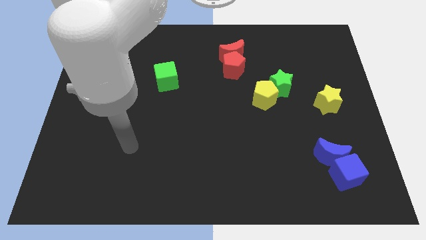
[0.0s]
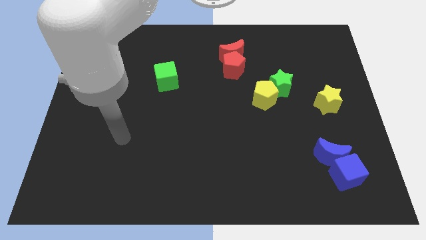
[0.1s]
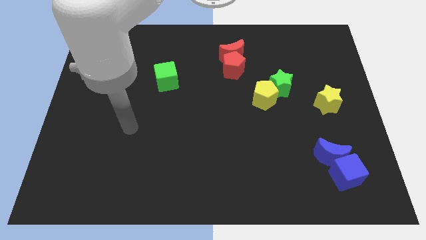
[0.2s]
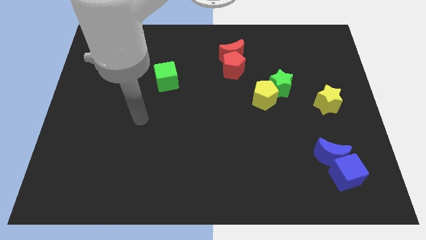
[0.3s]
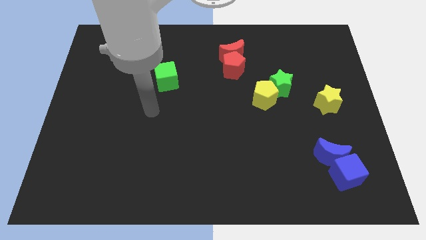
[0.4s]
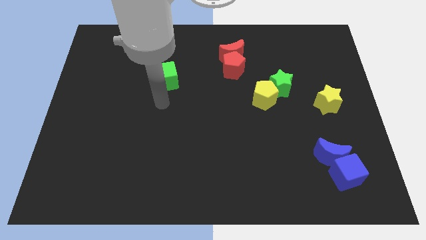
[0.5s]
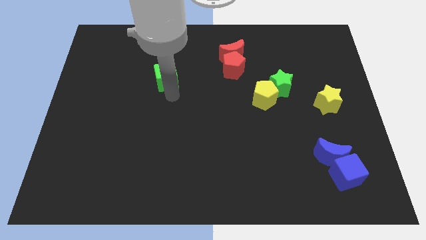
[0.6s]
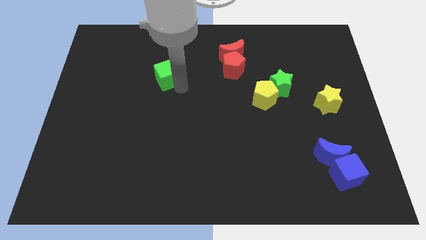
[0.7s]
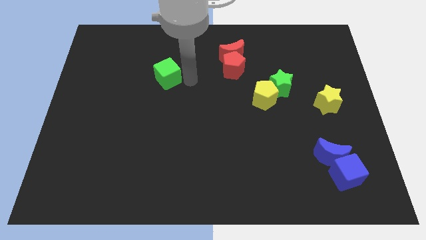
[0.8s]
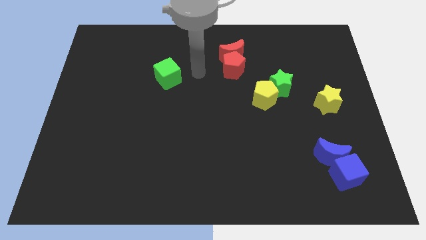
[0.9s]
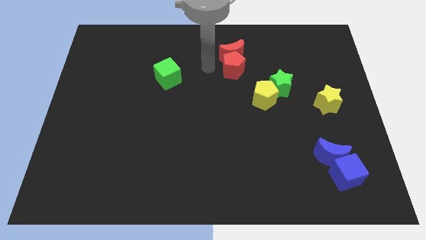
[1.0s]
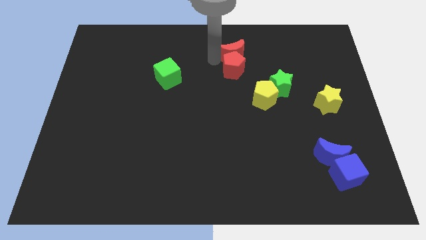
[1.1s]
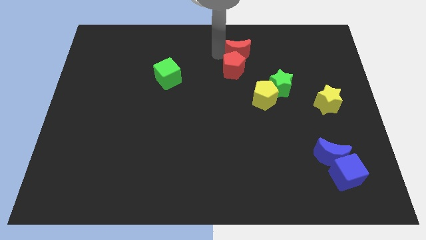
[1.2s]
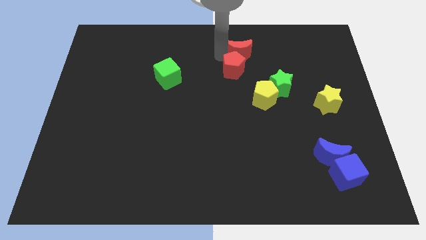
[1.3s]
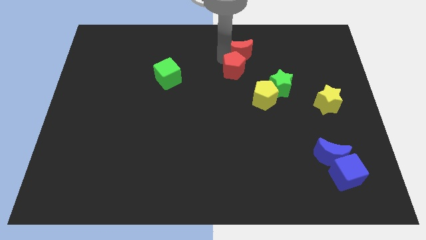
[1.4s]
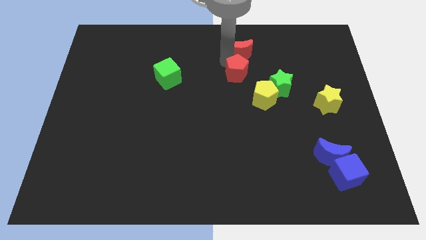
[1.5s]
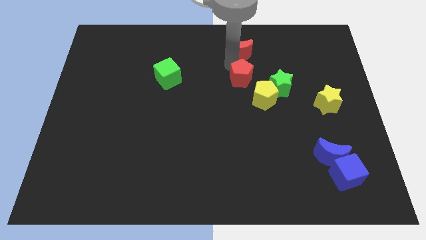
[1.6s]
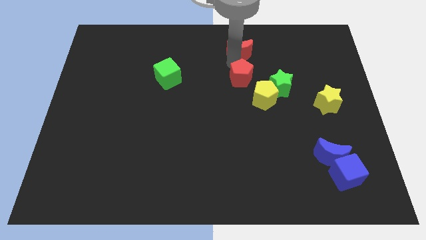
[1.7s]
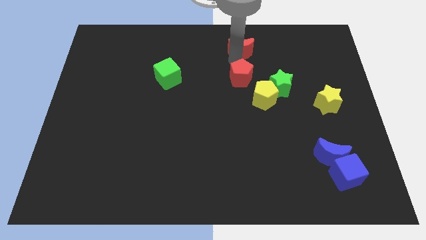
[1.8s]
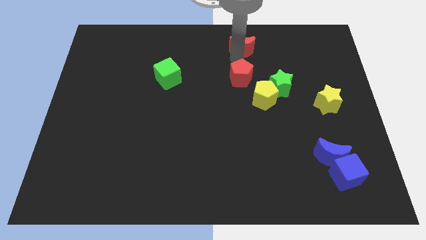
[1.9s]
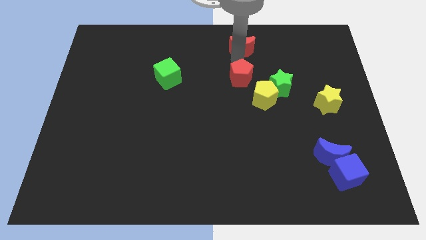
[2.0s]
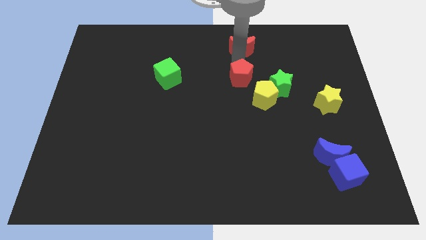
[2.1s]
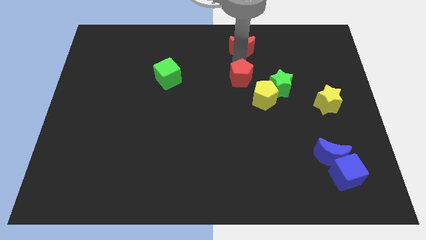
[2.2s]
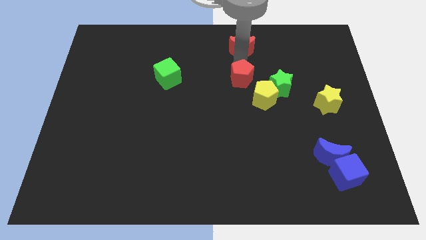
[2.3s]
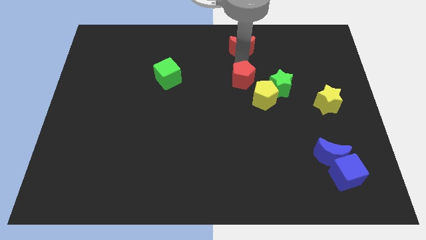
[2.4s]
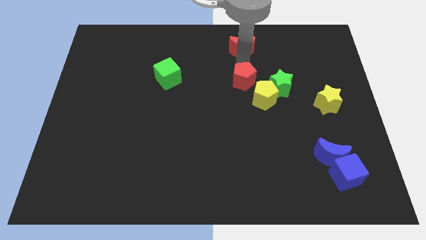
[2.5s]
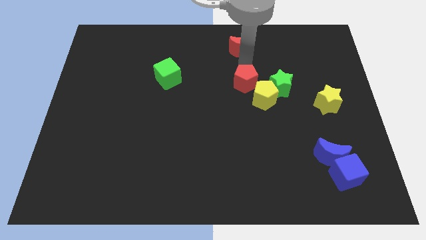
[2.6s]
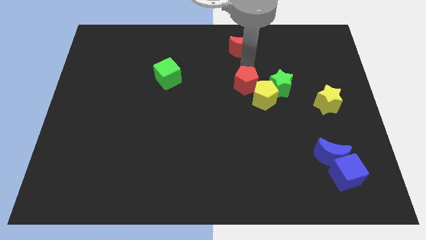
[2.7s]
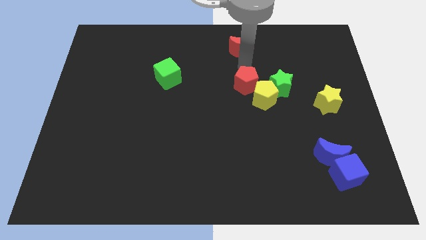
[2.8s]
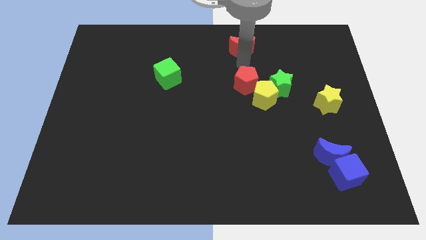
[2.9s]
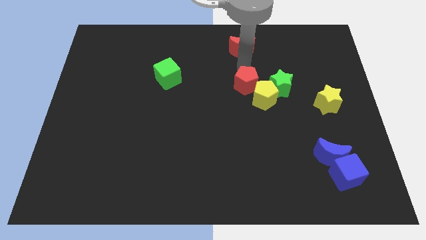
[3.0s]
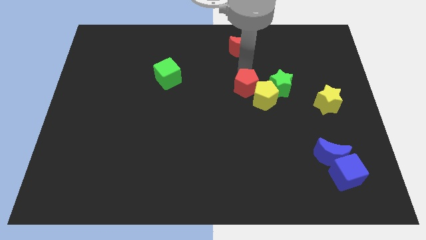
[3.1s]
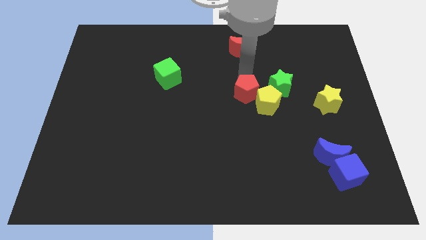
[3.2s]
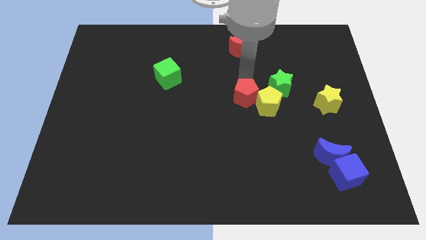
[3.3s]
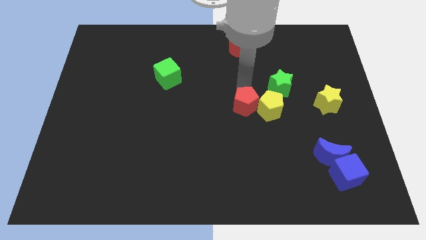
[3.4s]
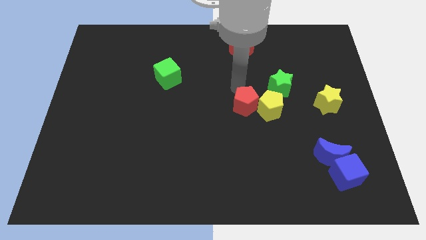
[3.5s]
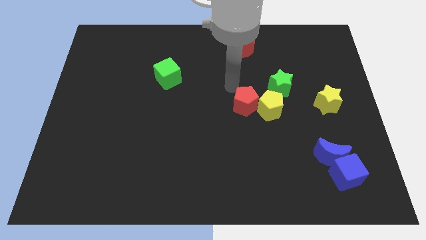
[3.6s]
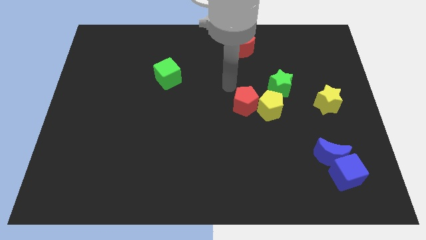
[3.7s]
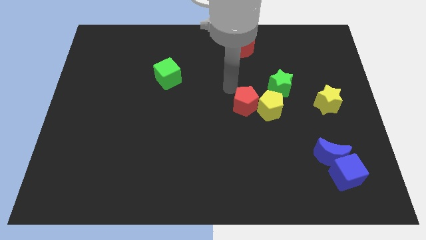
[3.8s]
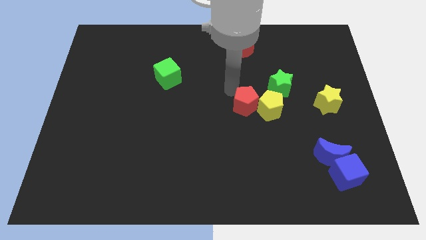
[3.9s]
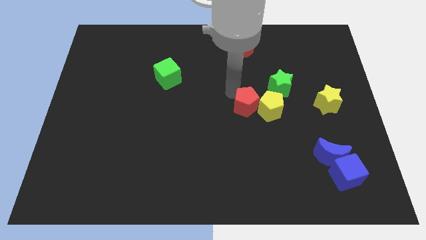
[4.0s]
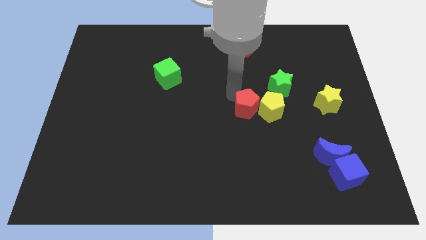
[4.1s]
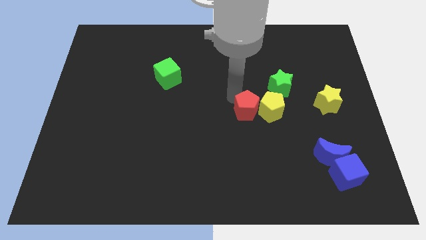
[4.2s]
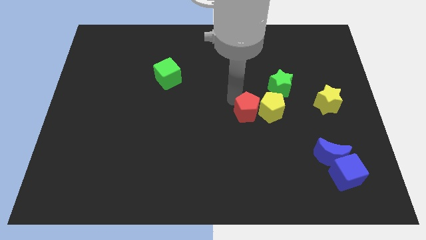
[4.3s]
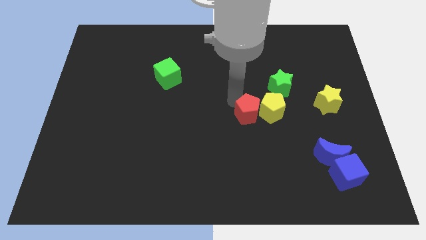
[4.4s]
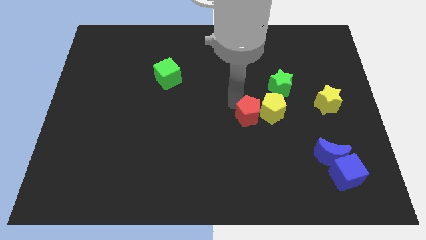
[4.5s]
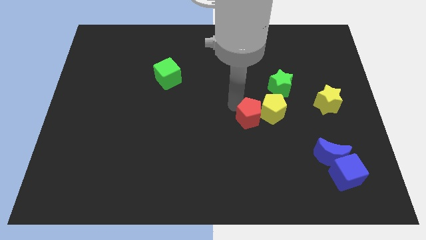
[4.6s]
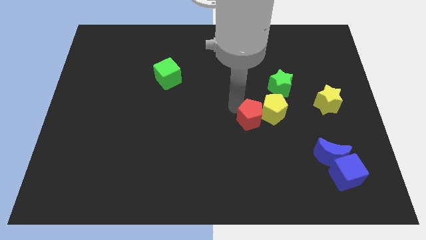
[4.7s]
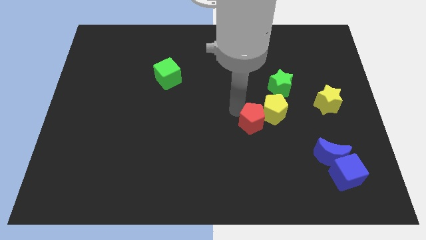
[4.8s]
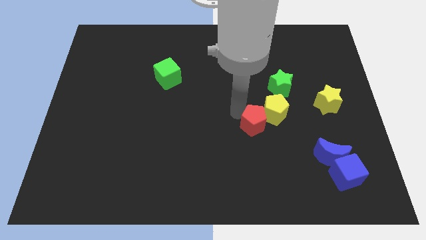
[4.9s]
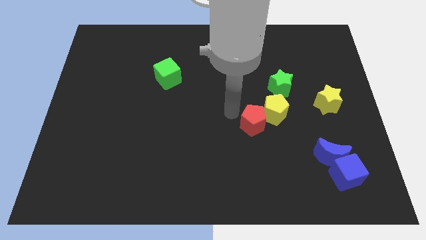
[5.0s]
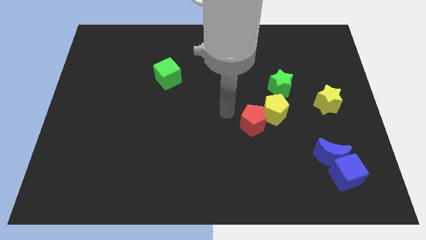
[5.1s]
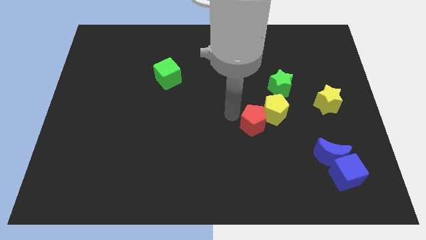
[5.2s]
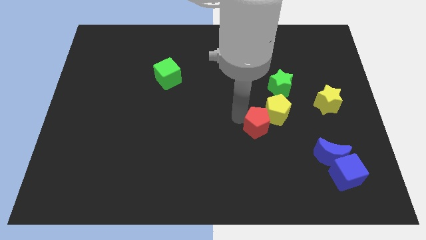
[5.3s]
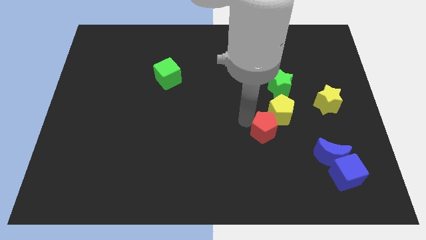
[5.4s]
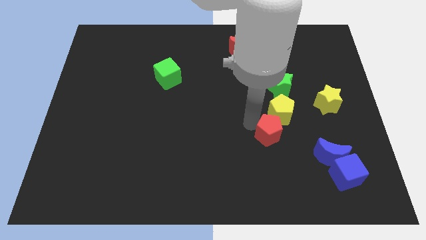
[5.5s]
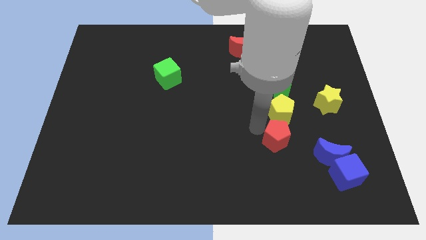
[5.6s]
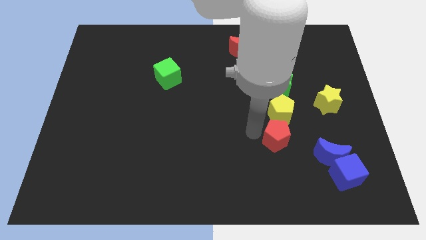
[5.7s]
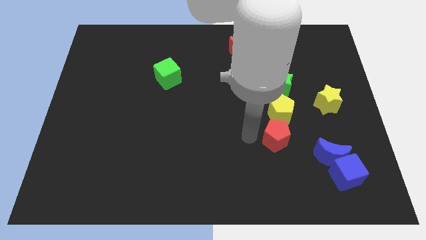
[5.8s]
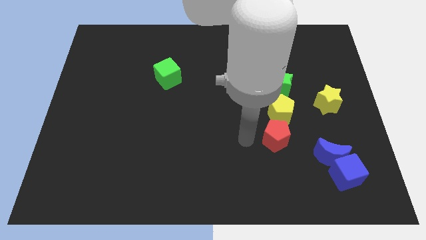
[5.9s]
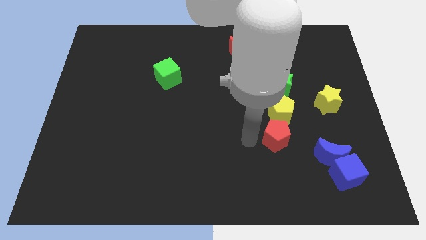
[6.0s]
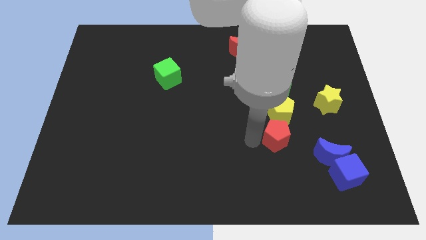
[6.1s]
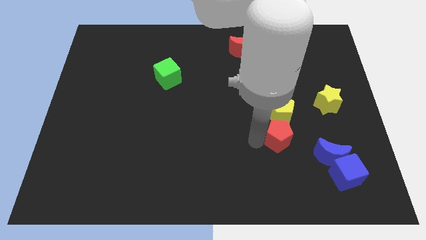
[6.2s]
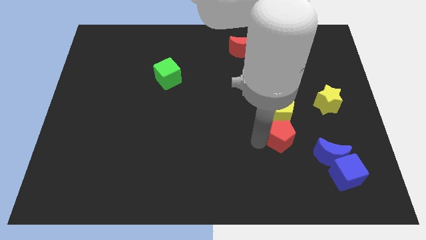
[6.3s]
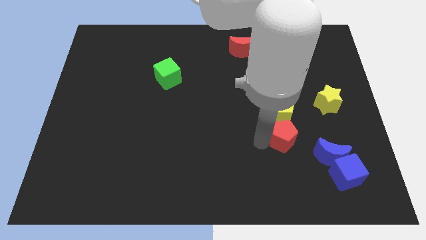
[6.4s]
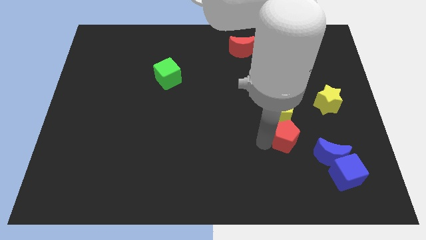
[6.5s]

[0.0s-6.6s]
slide the red pentagon down and to the right

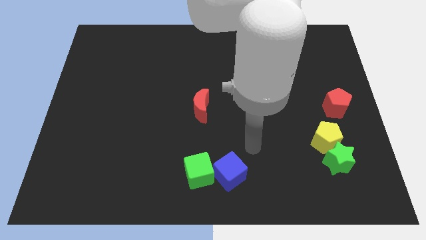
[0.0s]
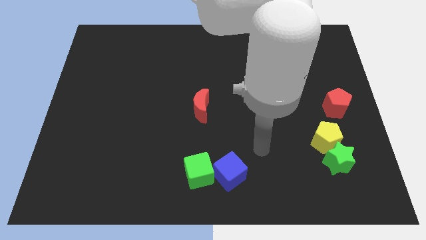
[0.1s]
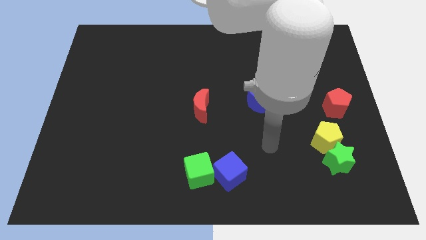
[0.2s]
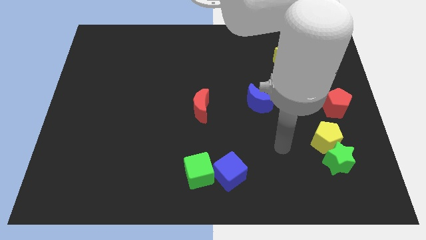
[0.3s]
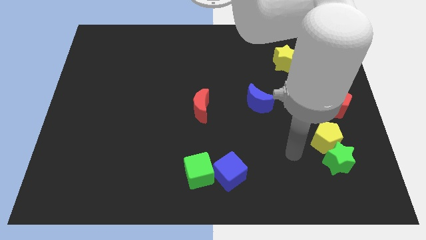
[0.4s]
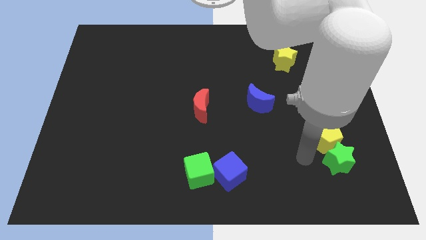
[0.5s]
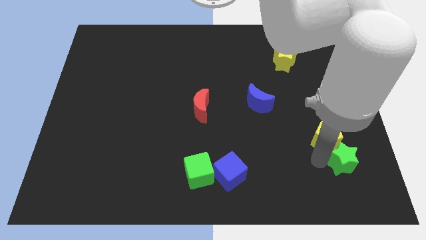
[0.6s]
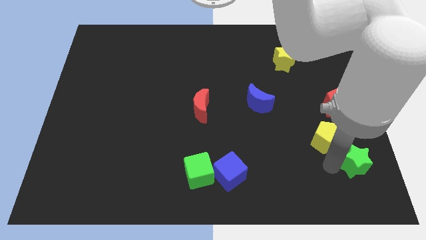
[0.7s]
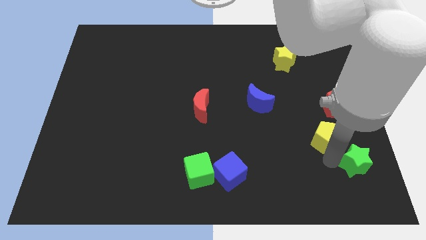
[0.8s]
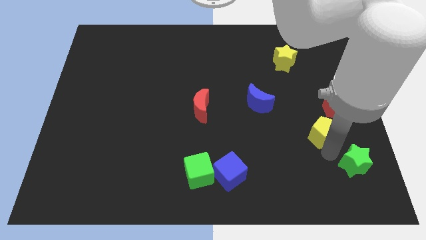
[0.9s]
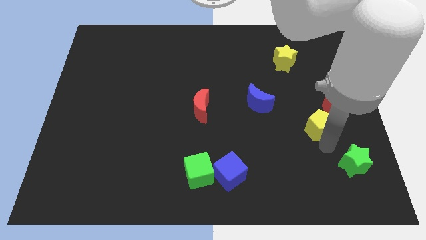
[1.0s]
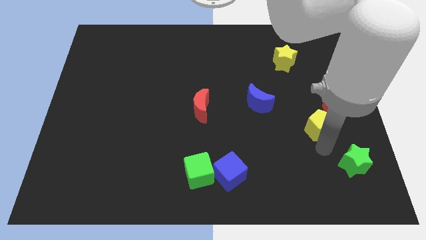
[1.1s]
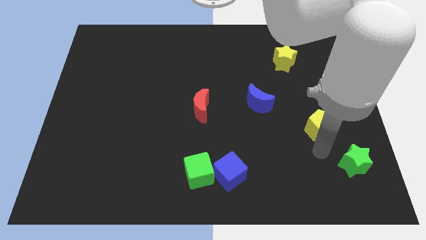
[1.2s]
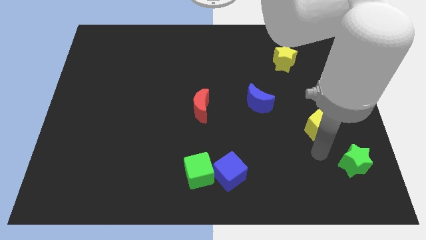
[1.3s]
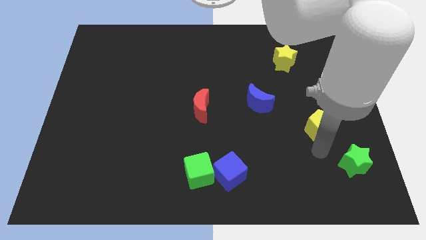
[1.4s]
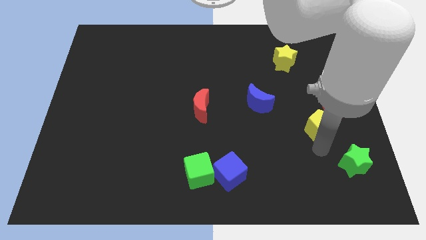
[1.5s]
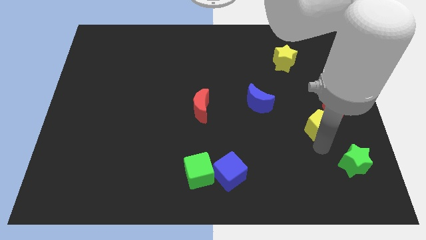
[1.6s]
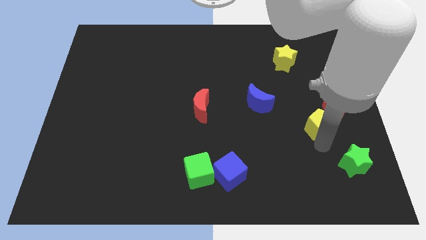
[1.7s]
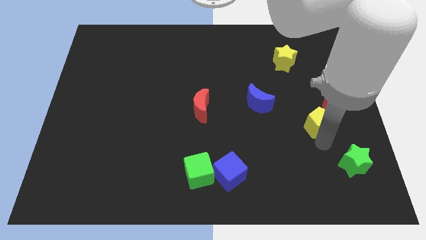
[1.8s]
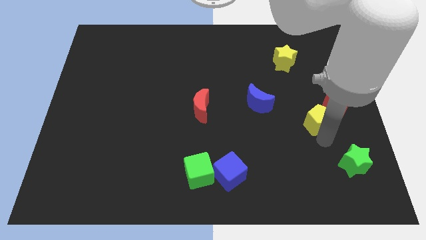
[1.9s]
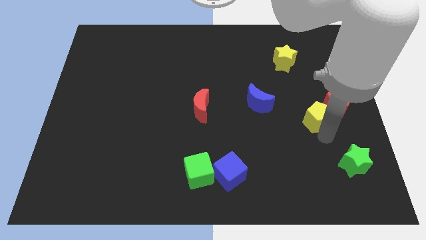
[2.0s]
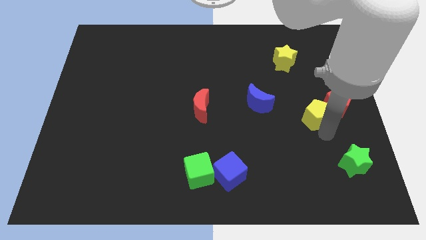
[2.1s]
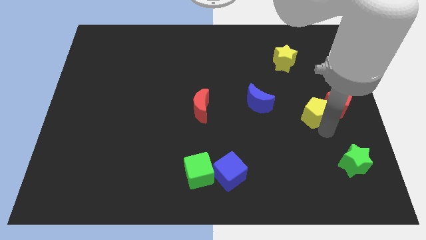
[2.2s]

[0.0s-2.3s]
move the yellow pentagon a bit up
